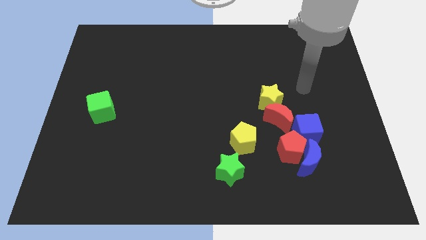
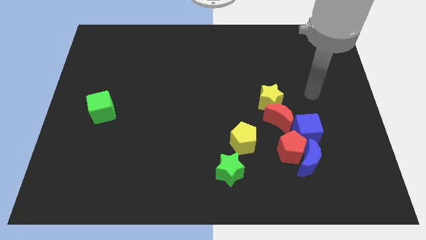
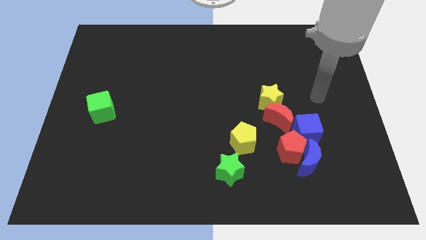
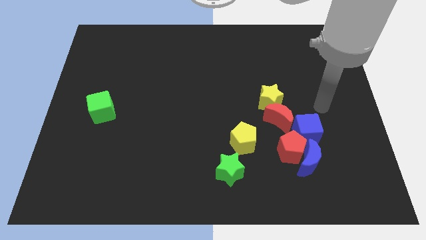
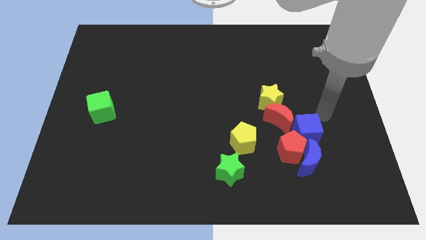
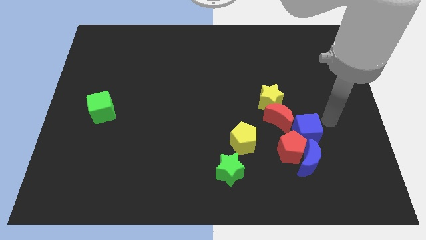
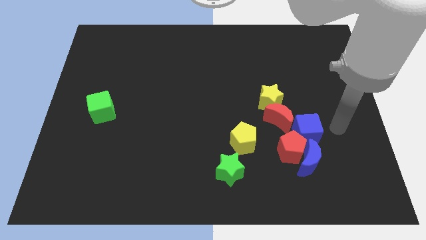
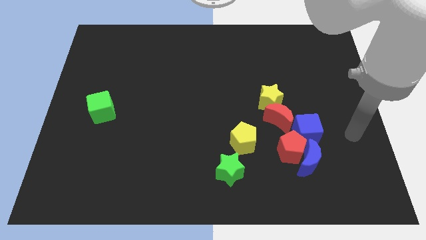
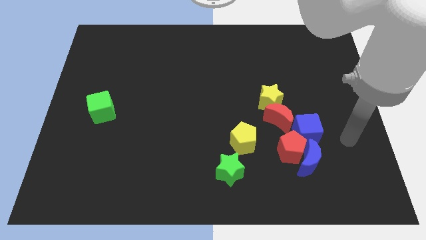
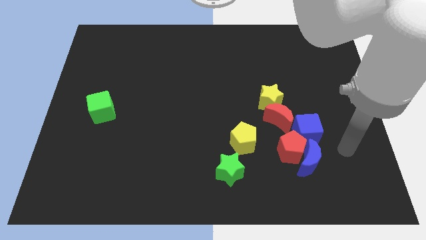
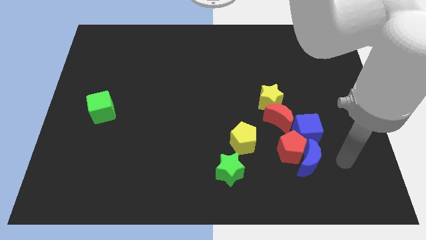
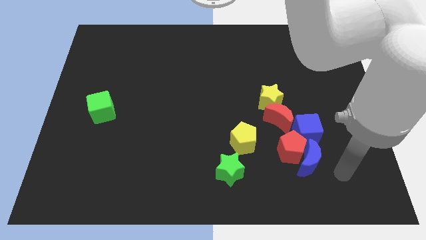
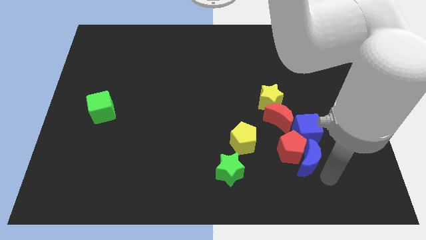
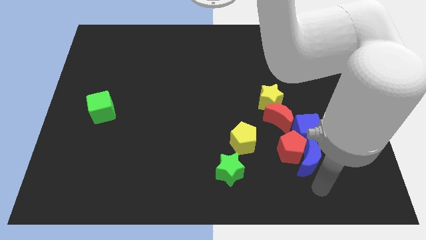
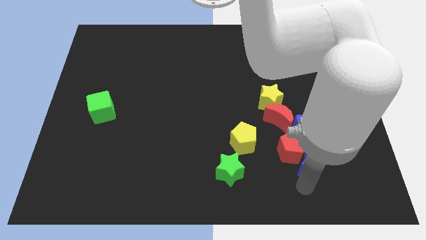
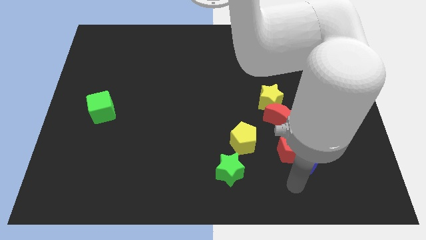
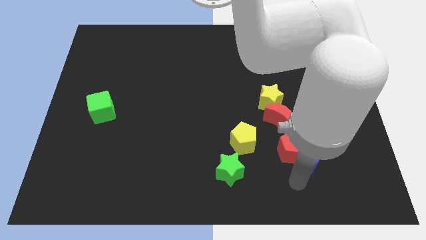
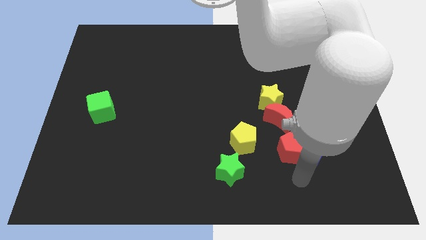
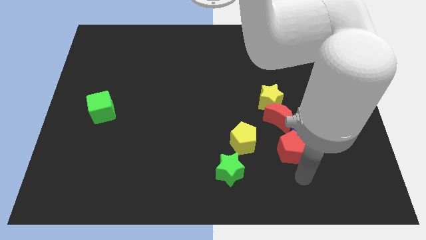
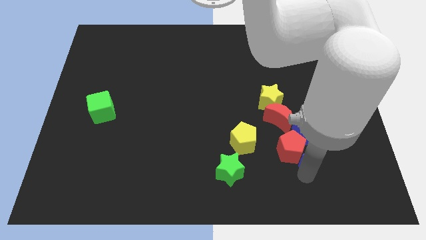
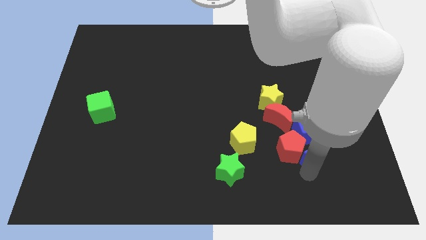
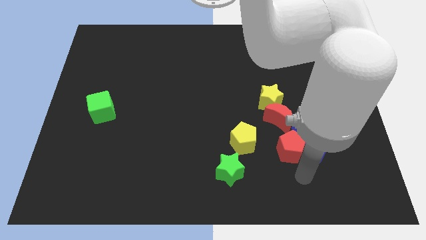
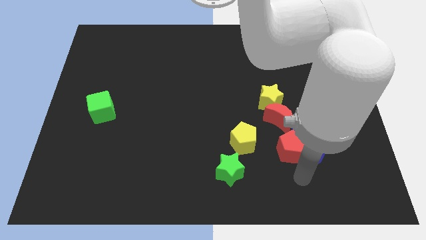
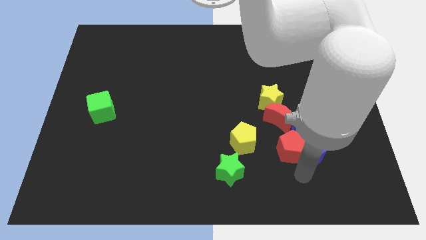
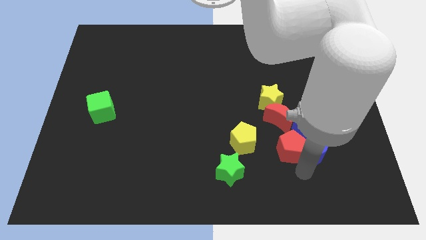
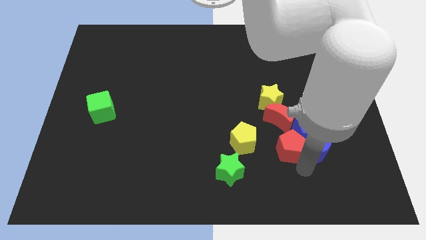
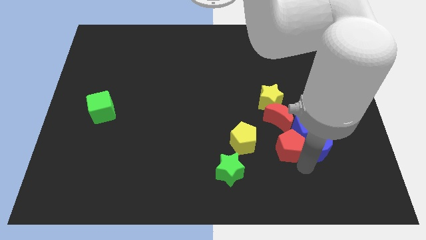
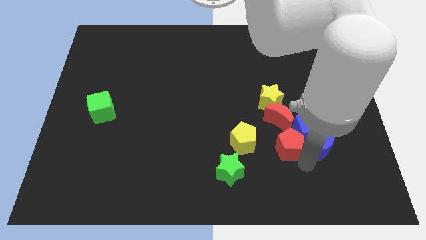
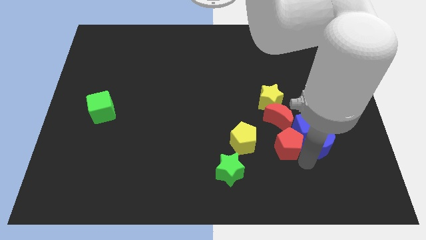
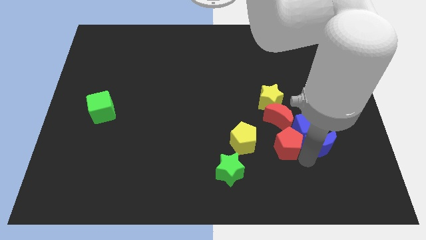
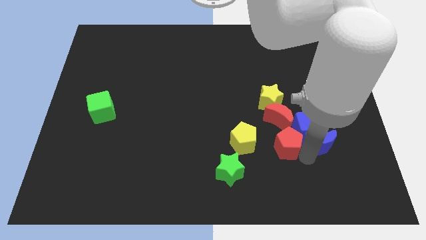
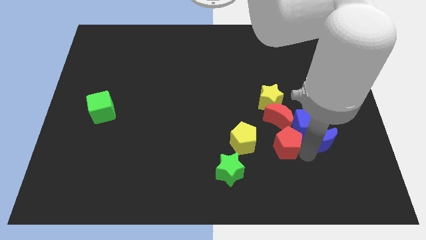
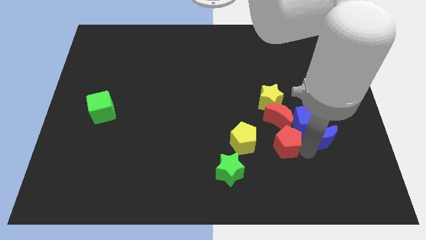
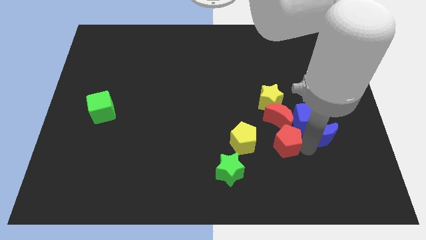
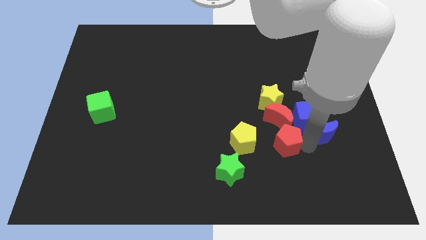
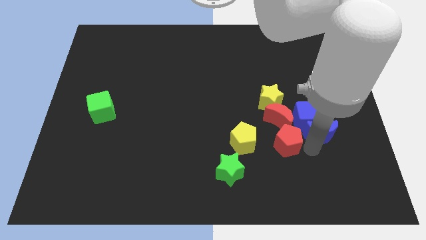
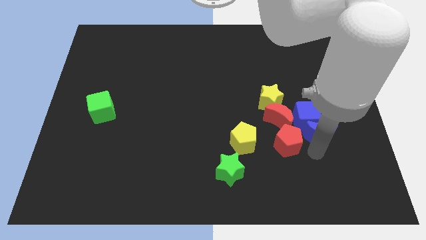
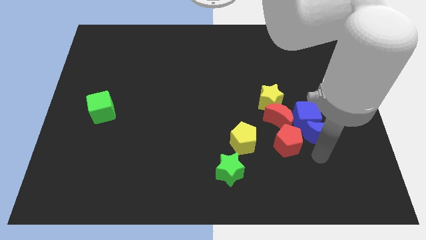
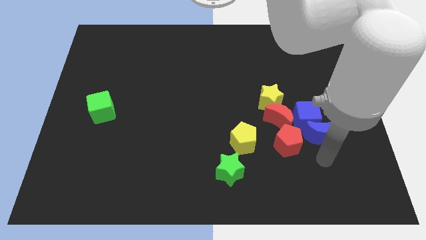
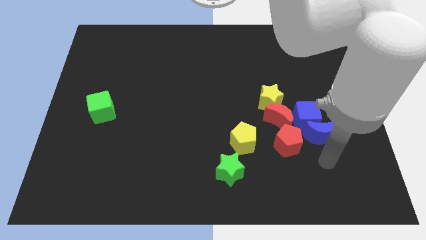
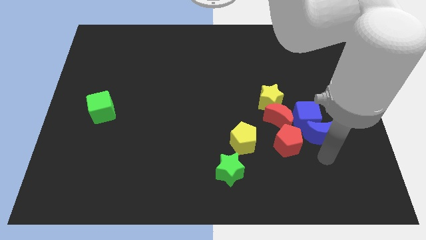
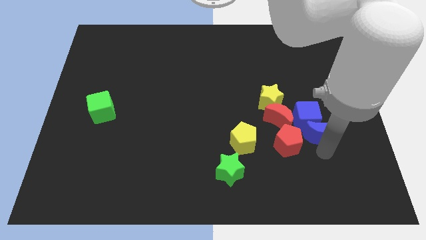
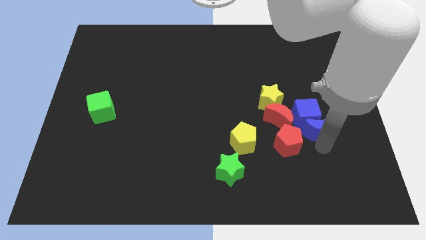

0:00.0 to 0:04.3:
move the blue moon upwards a little bit

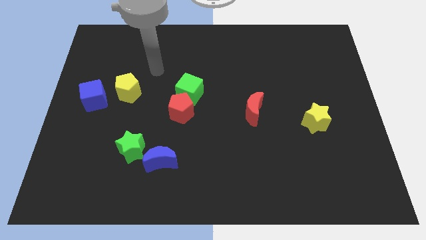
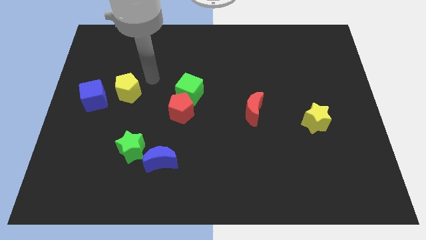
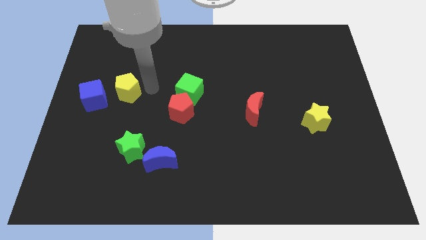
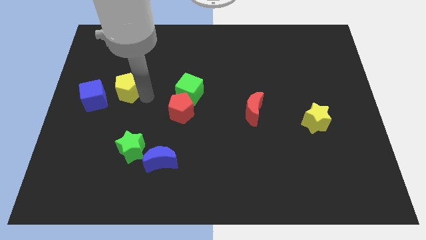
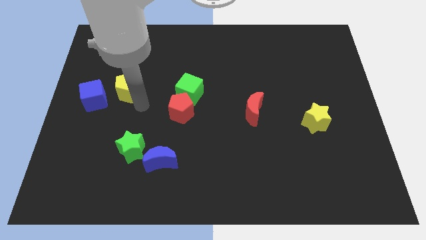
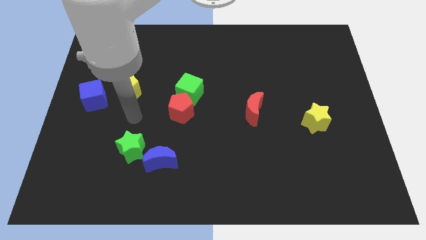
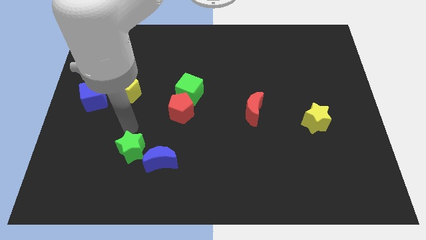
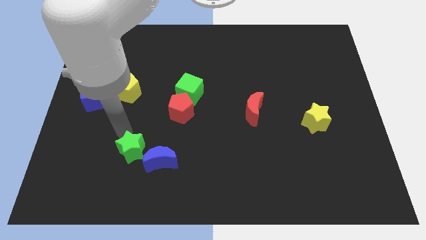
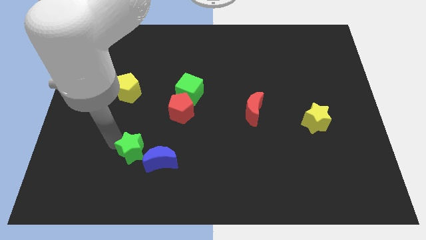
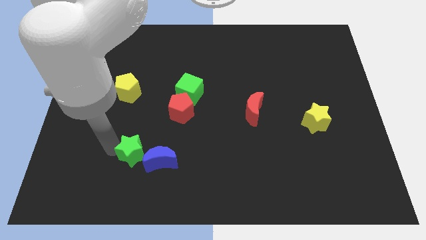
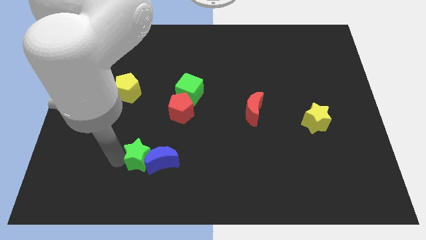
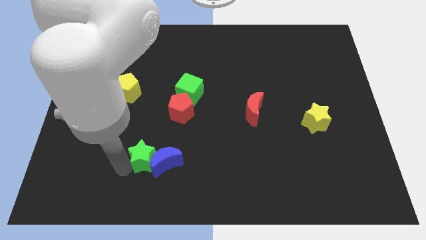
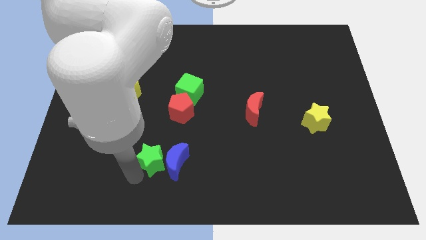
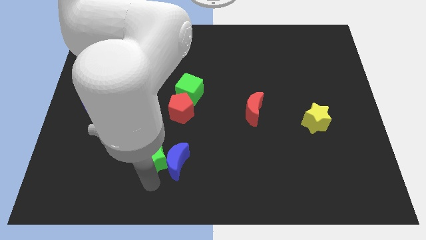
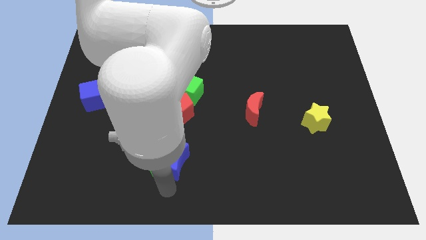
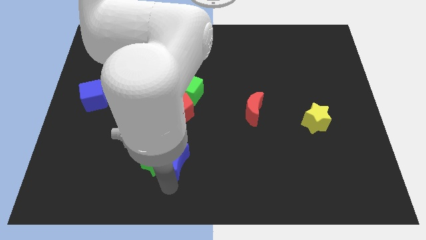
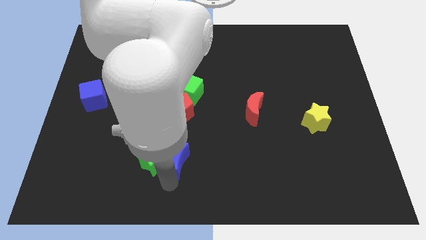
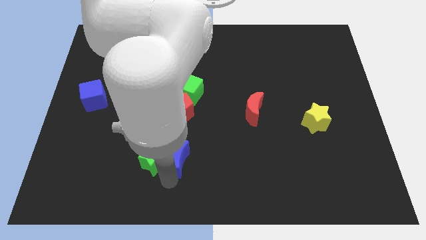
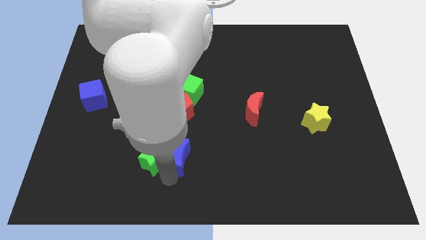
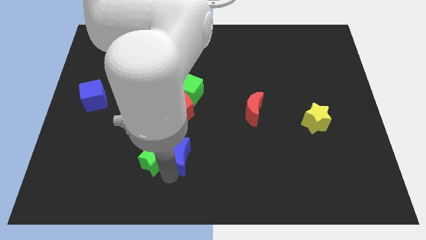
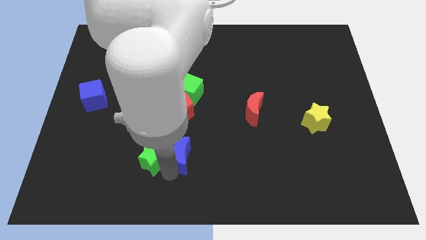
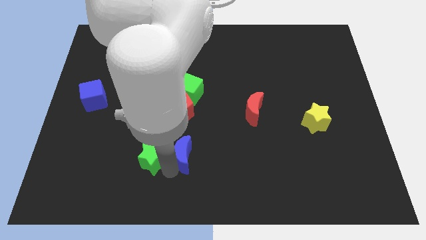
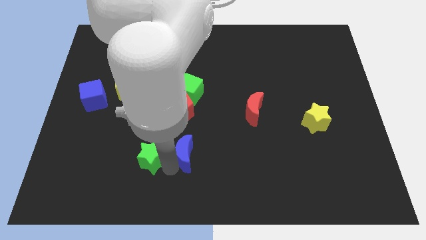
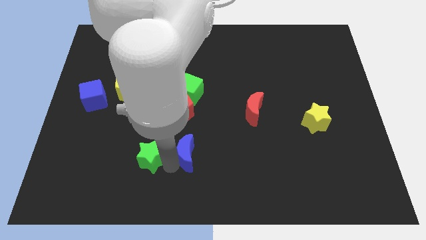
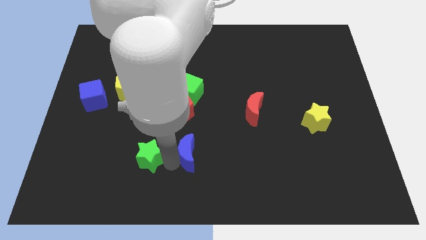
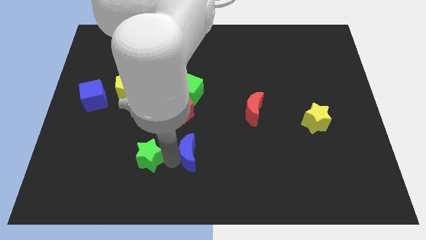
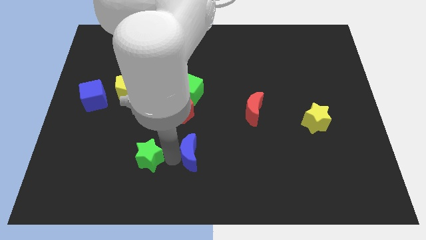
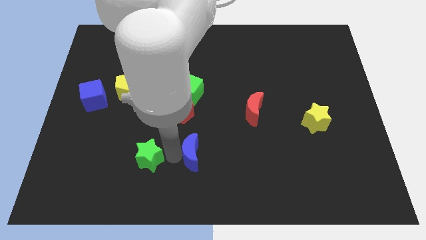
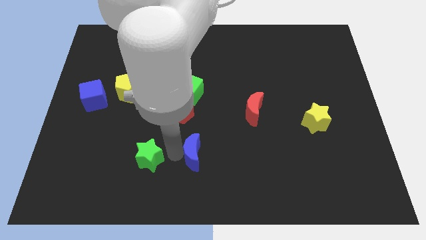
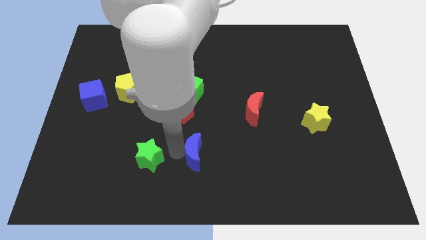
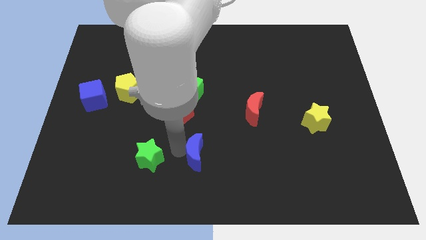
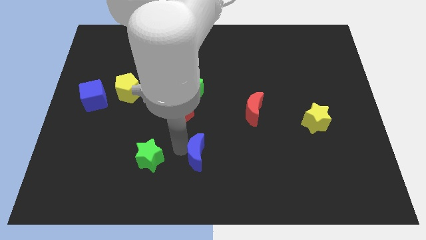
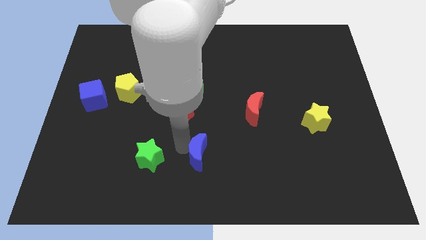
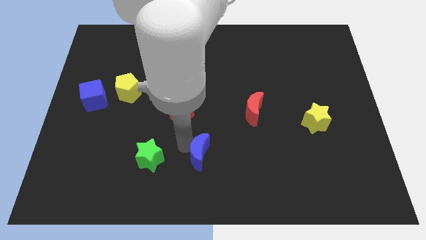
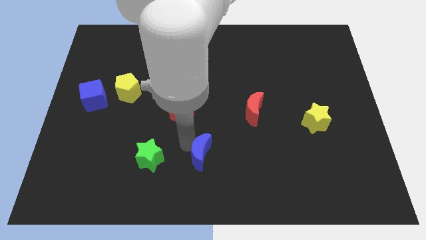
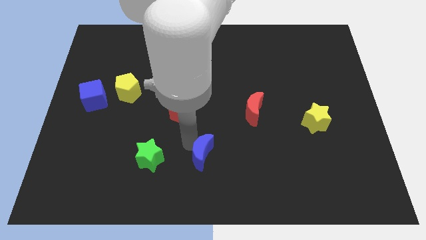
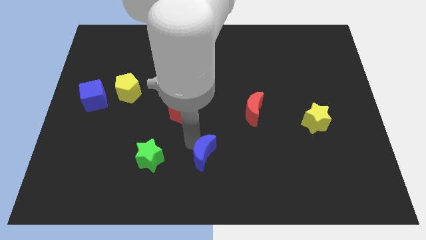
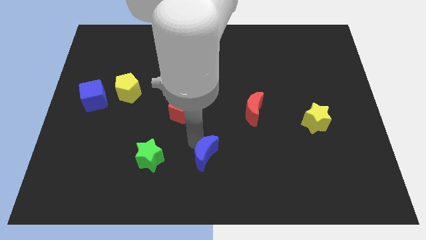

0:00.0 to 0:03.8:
slide the blue moon up and right diagonally somewhat
